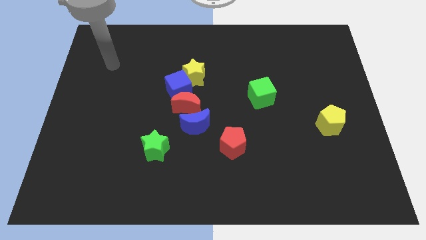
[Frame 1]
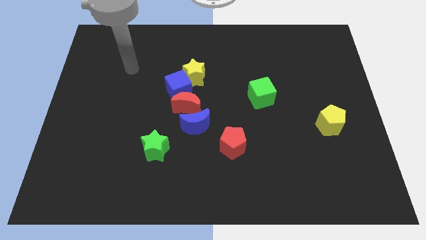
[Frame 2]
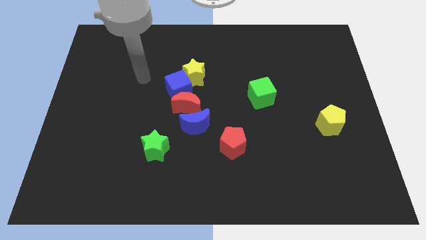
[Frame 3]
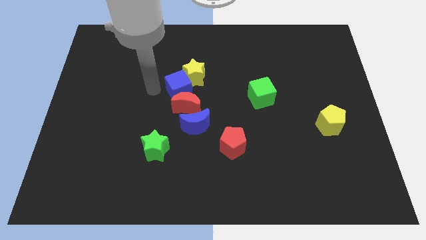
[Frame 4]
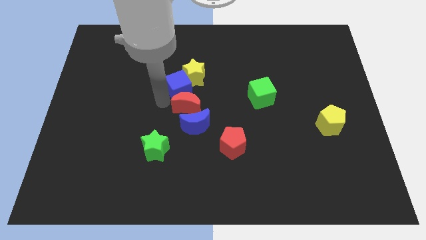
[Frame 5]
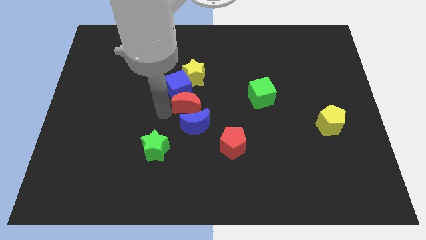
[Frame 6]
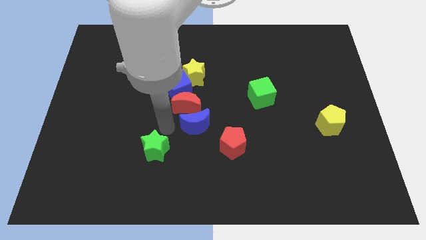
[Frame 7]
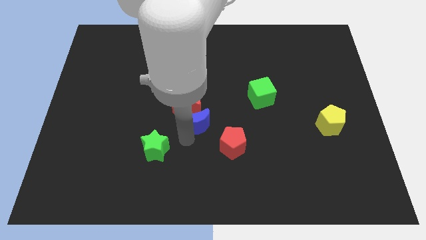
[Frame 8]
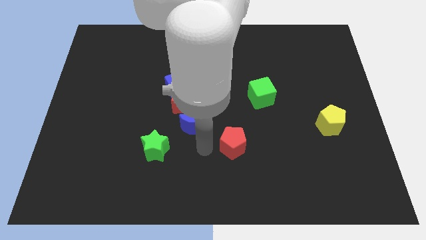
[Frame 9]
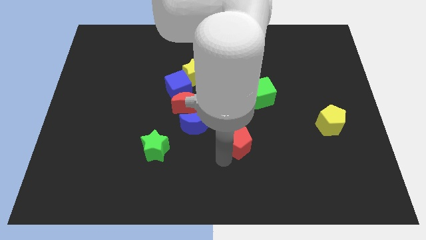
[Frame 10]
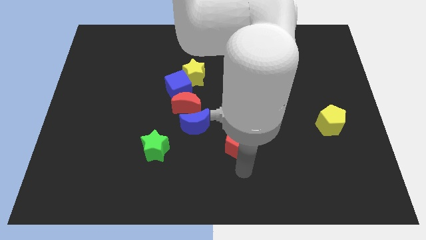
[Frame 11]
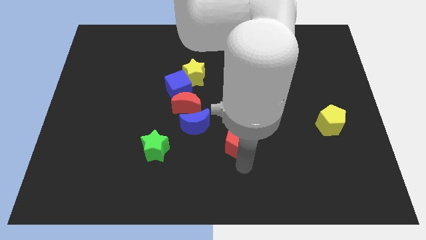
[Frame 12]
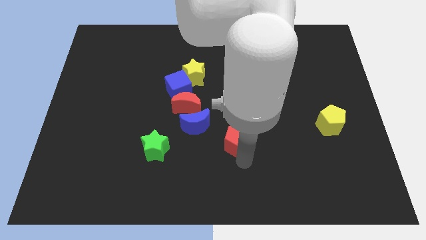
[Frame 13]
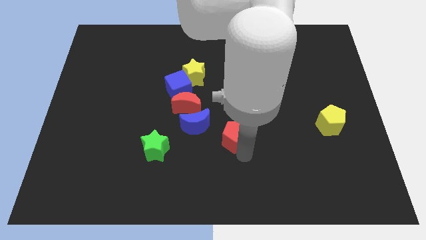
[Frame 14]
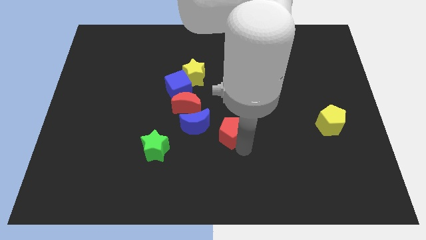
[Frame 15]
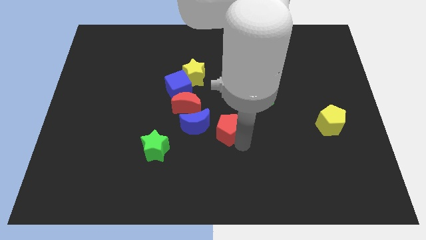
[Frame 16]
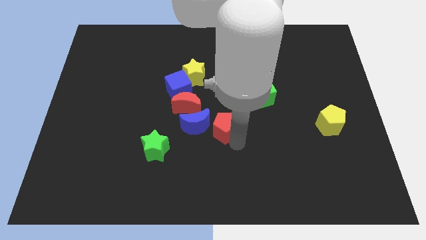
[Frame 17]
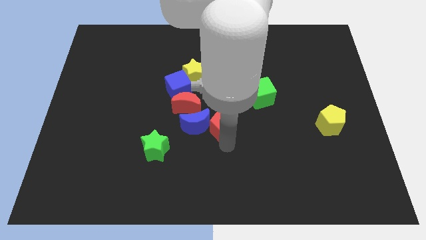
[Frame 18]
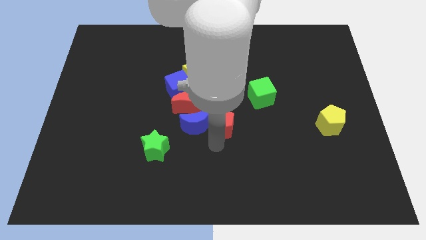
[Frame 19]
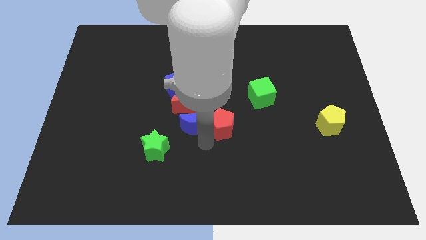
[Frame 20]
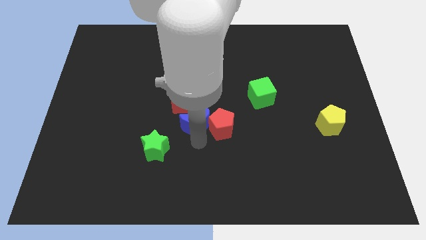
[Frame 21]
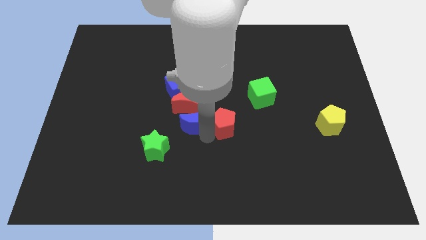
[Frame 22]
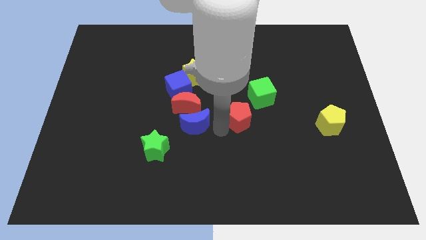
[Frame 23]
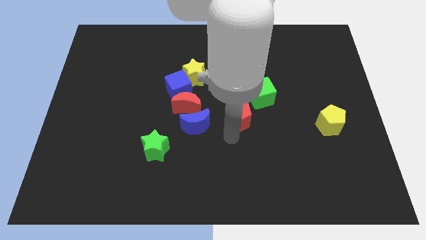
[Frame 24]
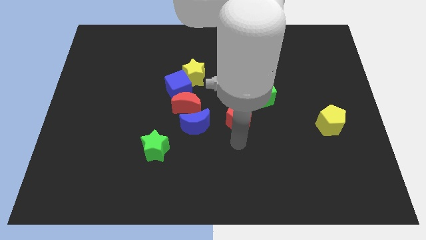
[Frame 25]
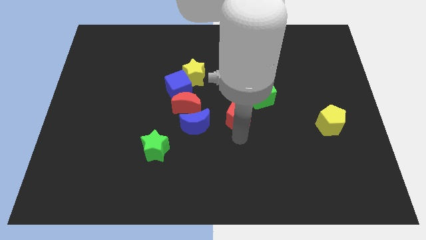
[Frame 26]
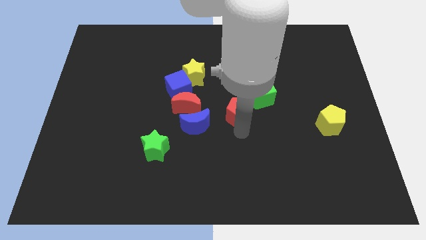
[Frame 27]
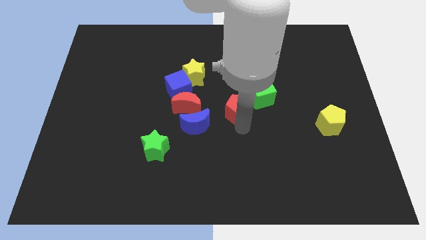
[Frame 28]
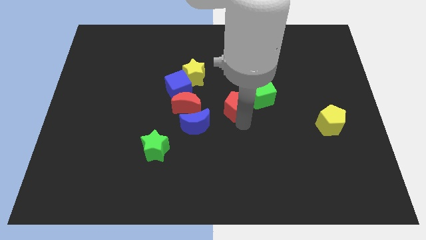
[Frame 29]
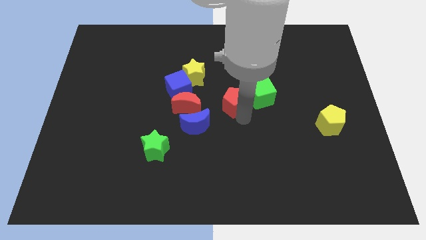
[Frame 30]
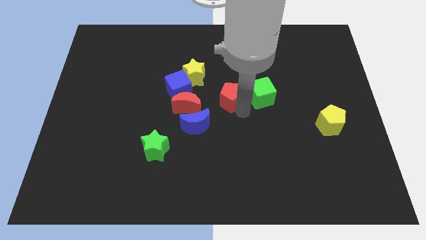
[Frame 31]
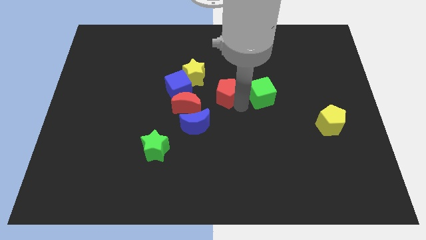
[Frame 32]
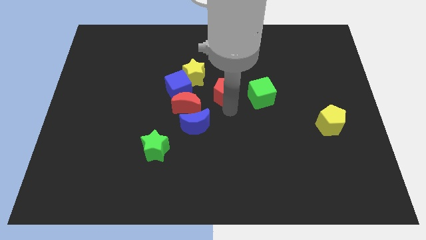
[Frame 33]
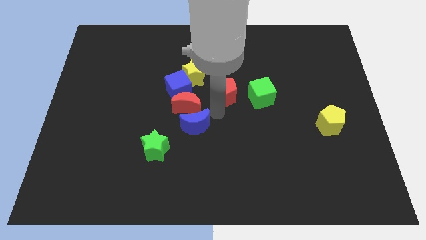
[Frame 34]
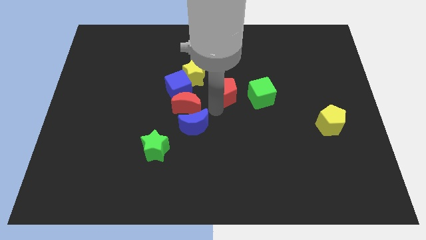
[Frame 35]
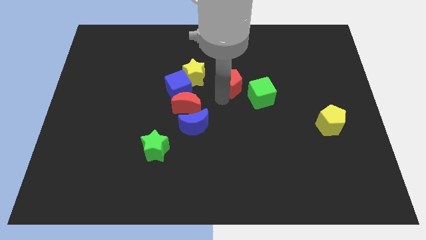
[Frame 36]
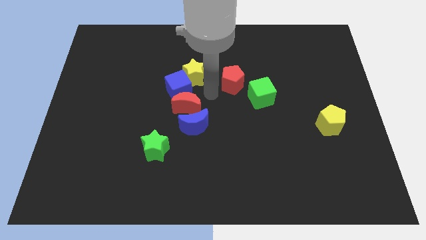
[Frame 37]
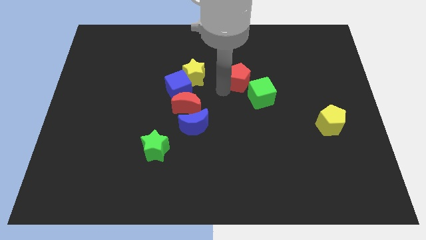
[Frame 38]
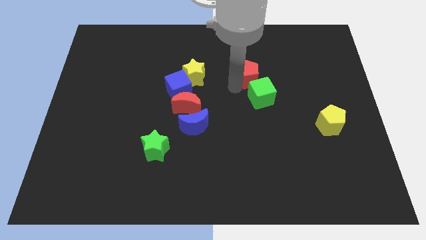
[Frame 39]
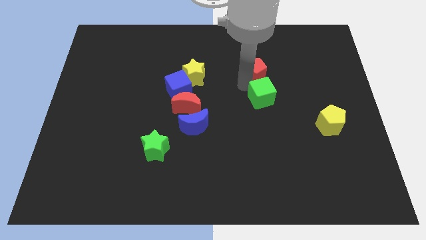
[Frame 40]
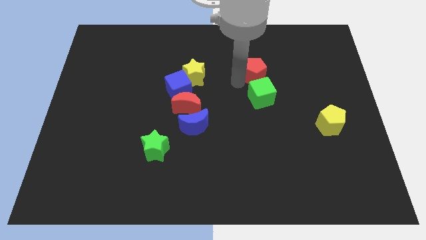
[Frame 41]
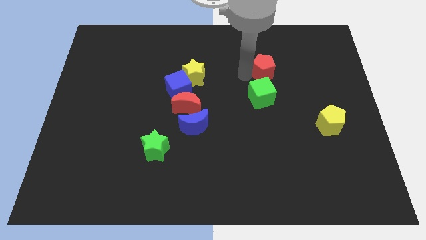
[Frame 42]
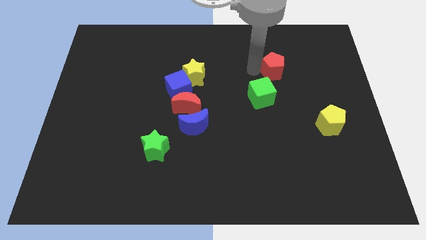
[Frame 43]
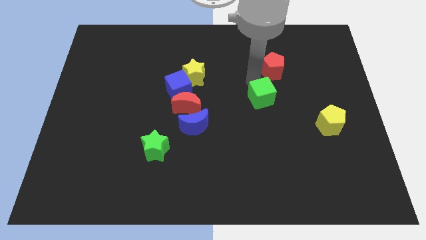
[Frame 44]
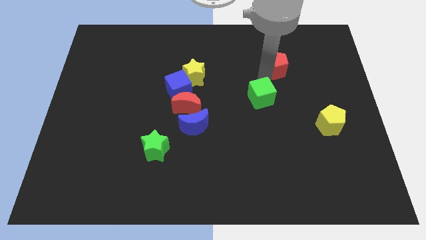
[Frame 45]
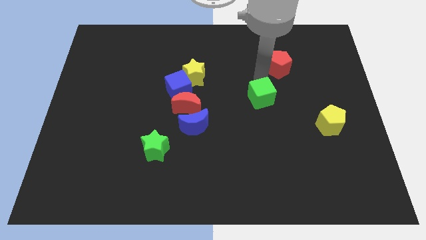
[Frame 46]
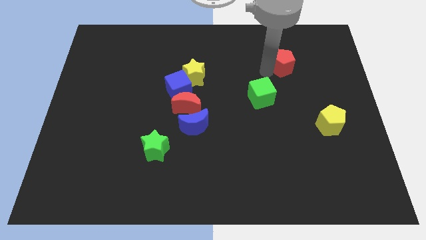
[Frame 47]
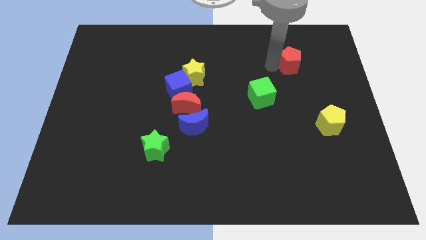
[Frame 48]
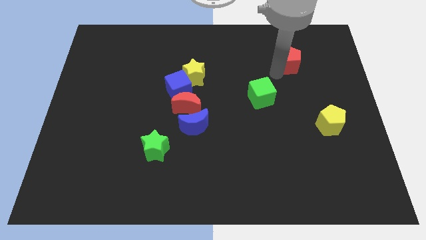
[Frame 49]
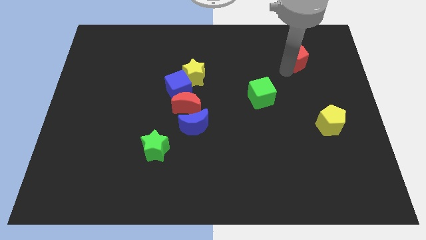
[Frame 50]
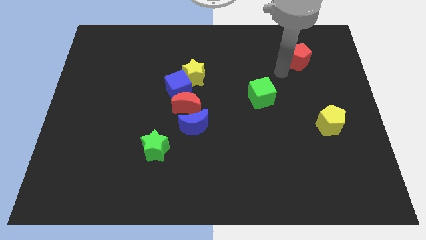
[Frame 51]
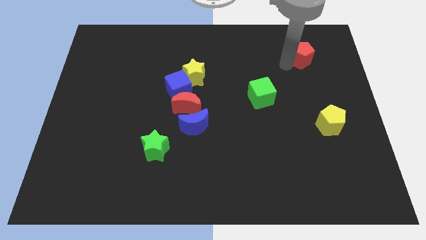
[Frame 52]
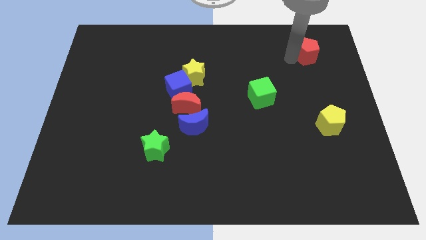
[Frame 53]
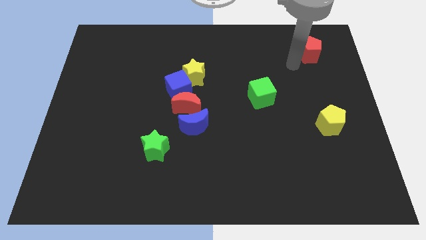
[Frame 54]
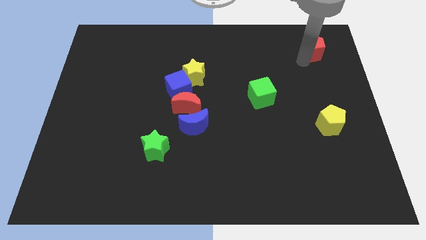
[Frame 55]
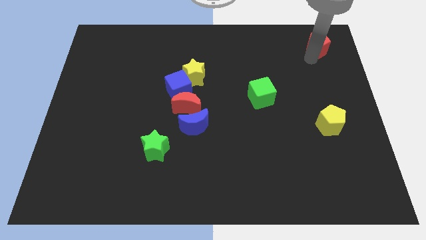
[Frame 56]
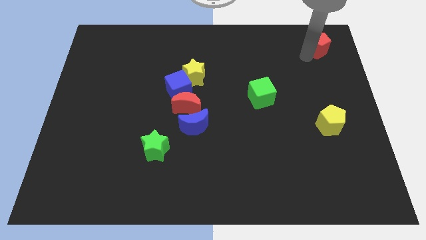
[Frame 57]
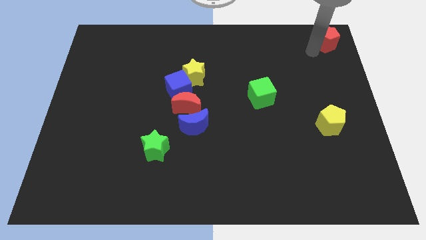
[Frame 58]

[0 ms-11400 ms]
slide the red pentagon to the top right
